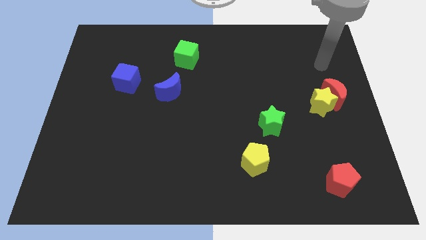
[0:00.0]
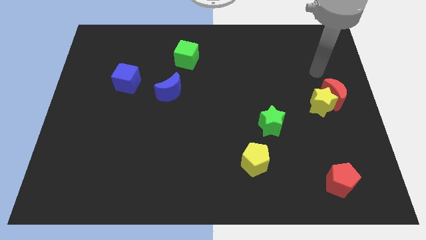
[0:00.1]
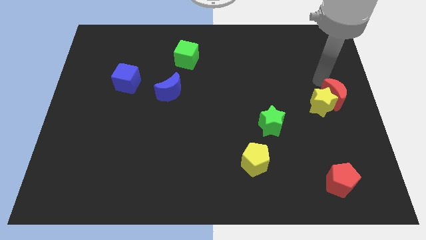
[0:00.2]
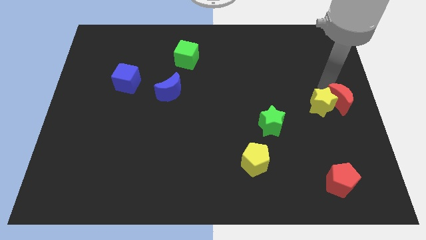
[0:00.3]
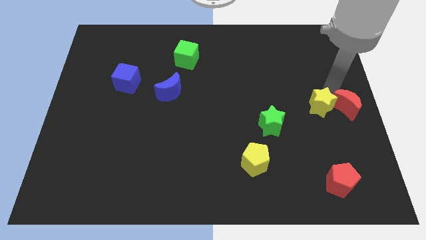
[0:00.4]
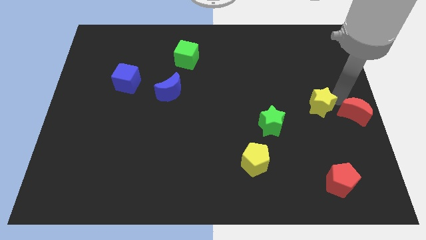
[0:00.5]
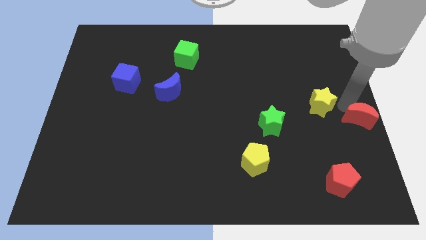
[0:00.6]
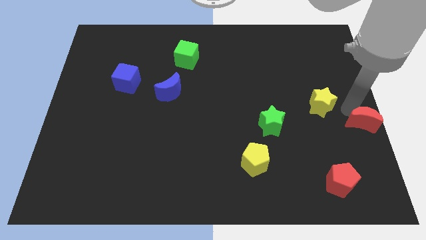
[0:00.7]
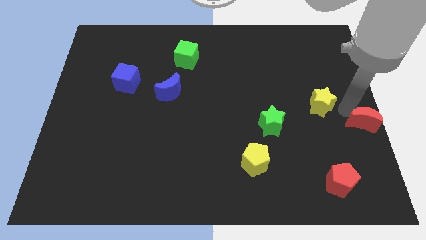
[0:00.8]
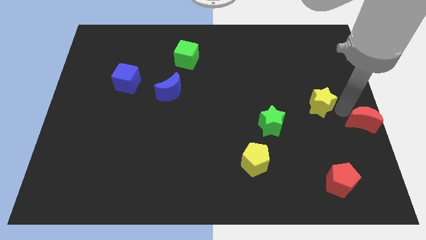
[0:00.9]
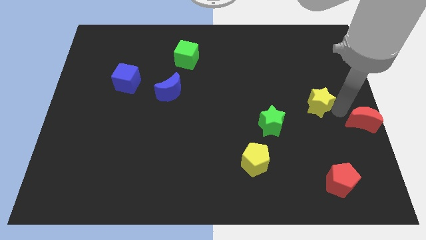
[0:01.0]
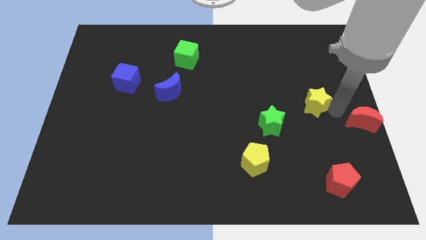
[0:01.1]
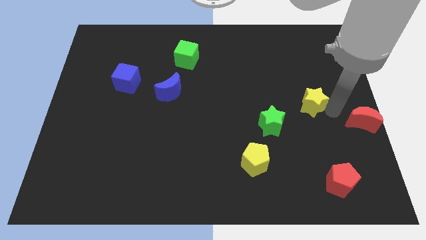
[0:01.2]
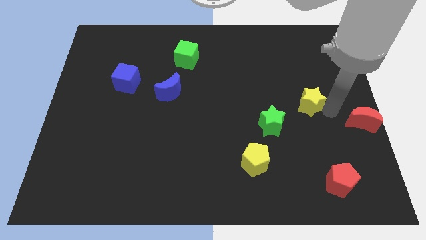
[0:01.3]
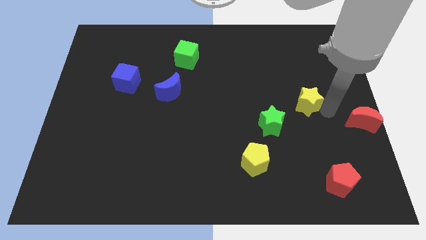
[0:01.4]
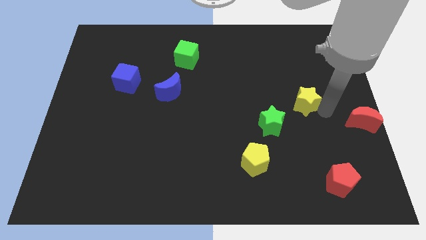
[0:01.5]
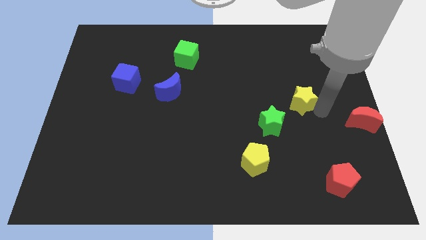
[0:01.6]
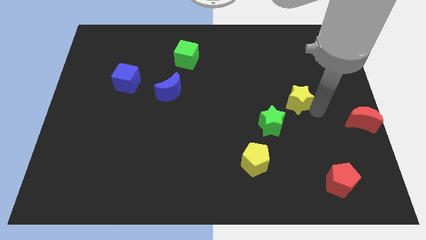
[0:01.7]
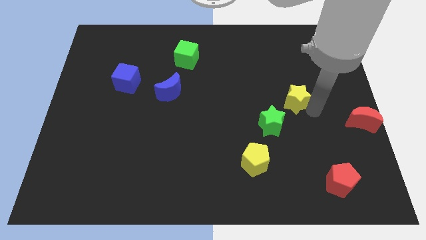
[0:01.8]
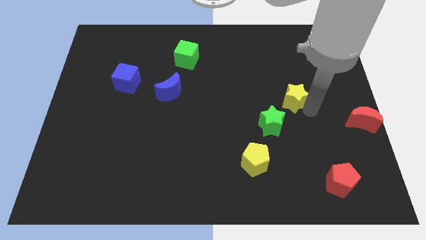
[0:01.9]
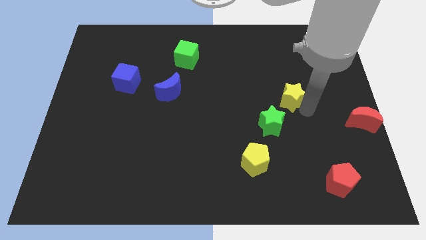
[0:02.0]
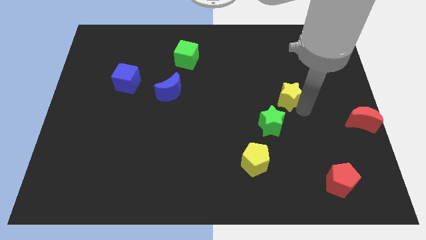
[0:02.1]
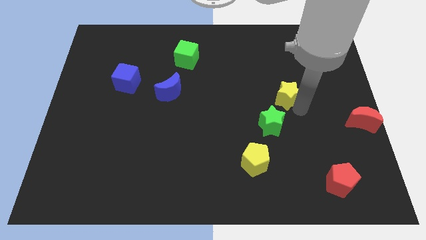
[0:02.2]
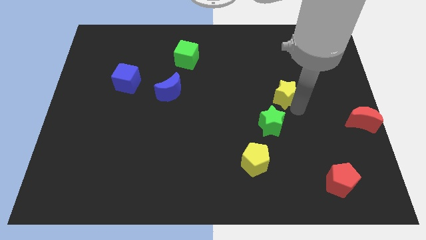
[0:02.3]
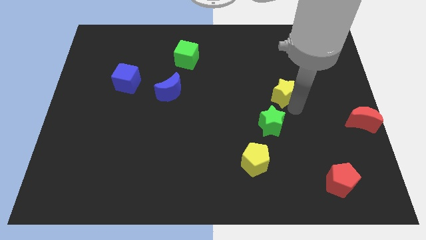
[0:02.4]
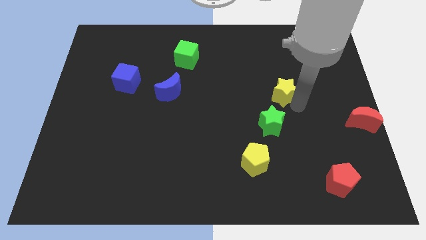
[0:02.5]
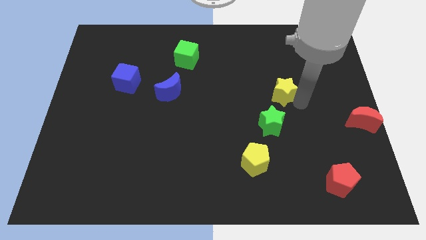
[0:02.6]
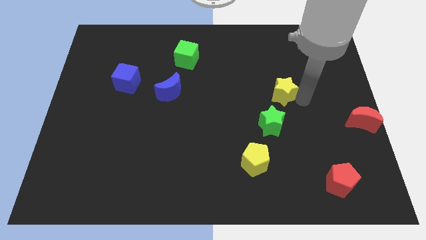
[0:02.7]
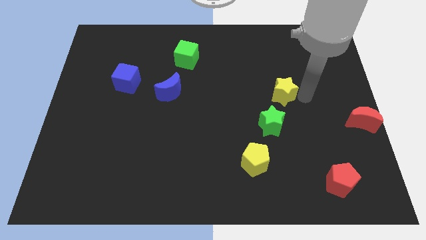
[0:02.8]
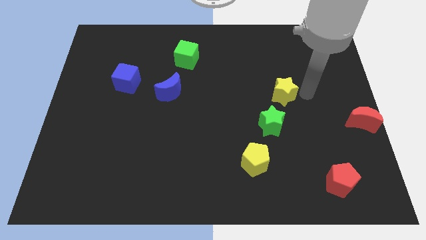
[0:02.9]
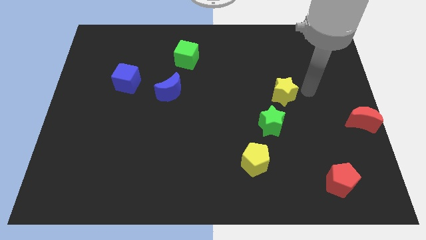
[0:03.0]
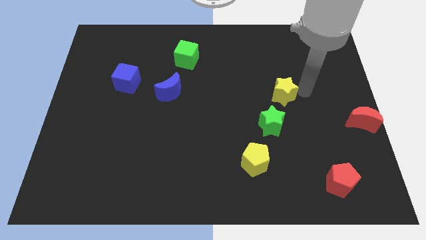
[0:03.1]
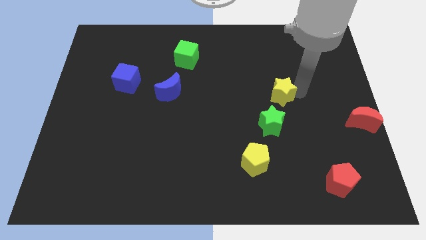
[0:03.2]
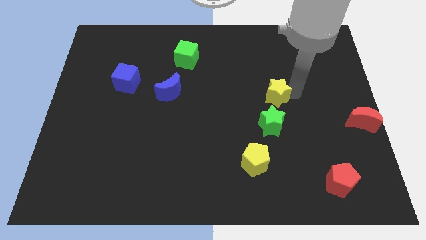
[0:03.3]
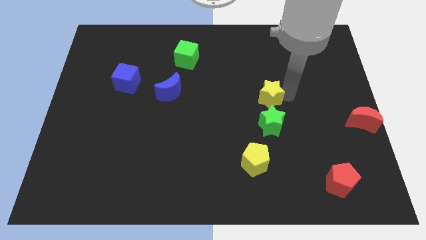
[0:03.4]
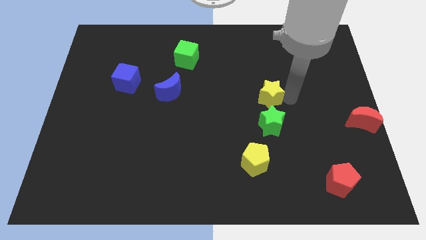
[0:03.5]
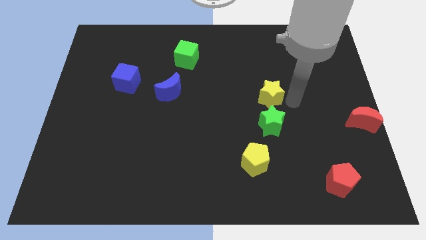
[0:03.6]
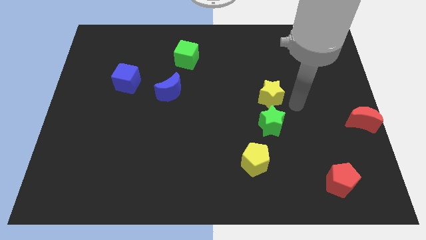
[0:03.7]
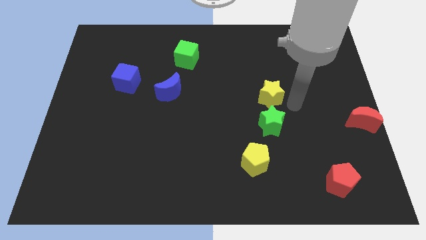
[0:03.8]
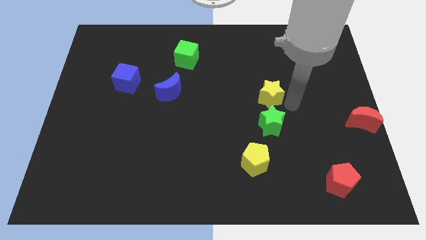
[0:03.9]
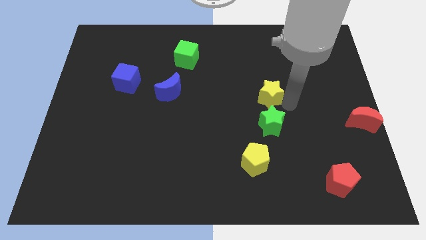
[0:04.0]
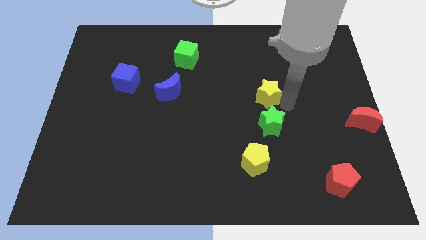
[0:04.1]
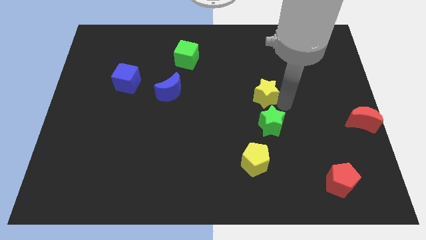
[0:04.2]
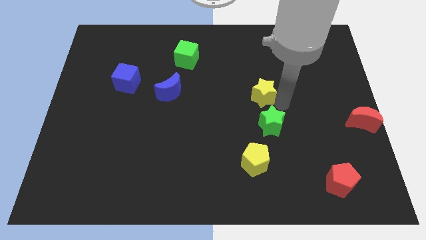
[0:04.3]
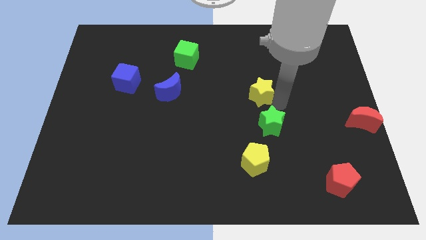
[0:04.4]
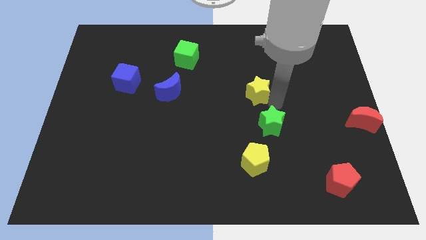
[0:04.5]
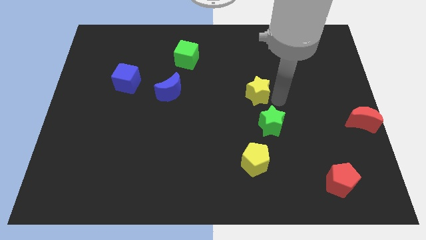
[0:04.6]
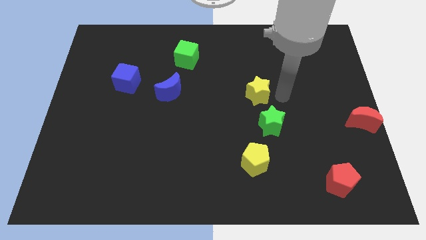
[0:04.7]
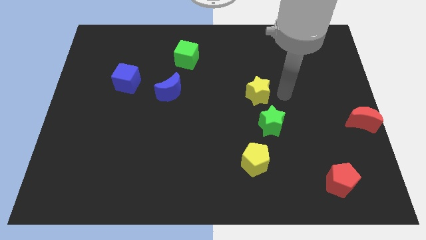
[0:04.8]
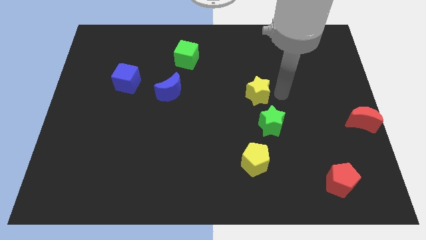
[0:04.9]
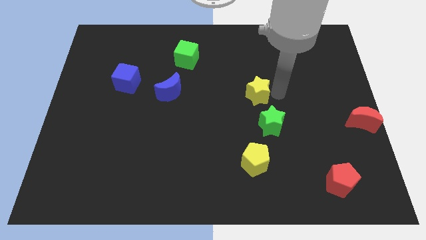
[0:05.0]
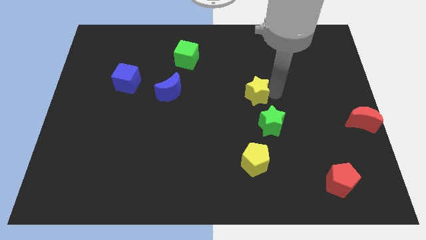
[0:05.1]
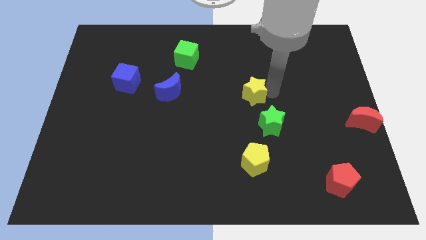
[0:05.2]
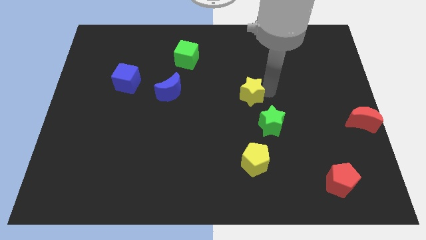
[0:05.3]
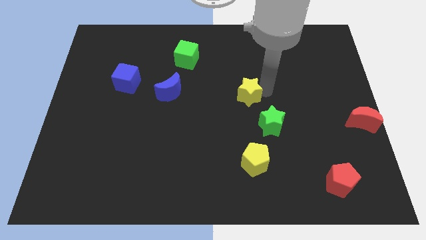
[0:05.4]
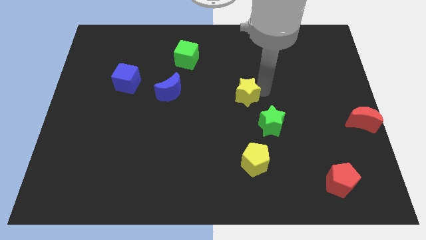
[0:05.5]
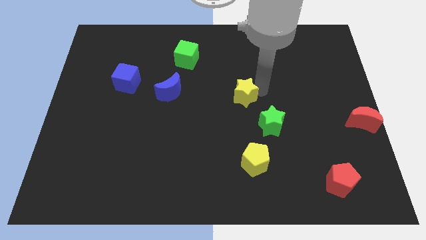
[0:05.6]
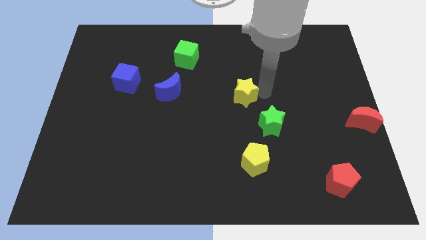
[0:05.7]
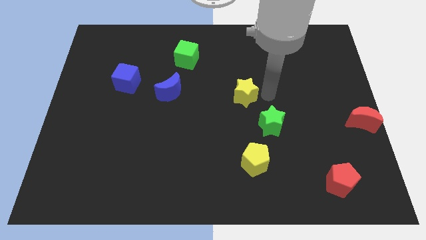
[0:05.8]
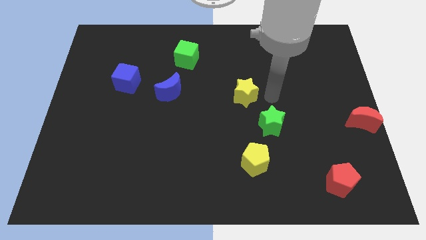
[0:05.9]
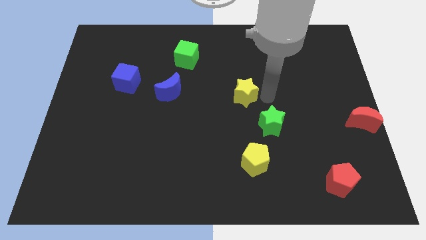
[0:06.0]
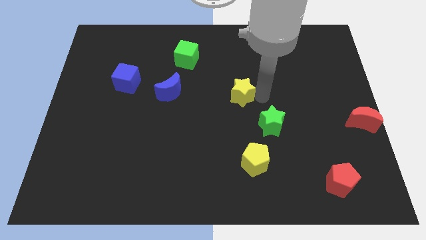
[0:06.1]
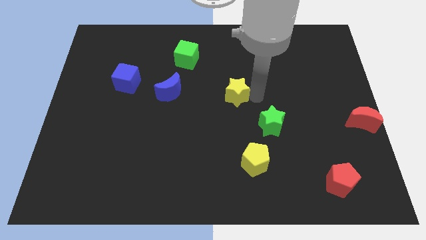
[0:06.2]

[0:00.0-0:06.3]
slide the yellow star to the left

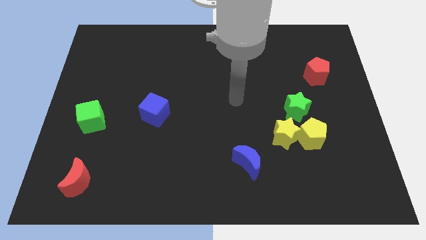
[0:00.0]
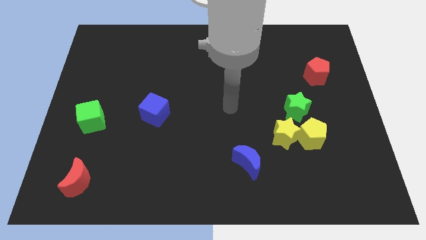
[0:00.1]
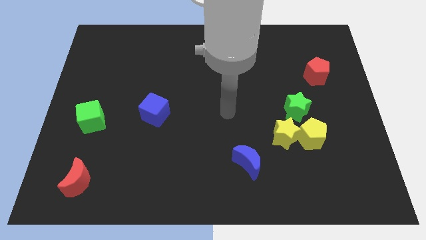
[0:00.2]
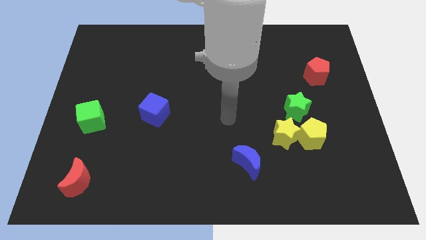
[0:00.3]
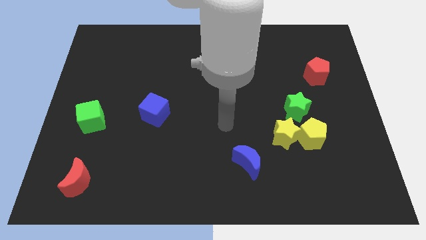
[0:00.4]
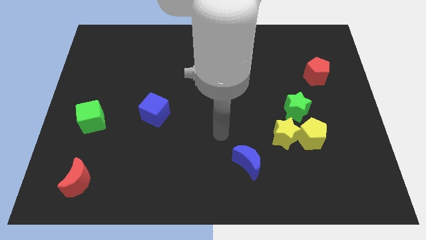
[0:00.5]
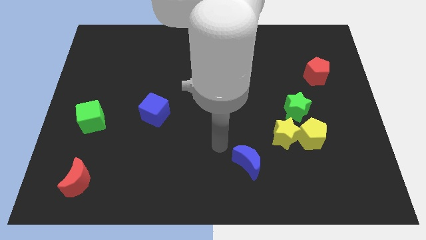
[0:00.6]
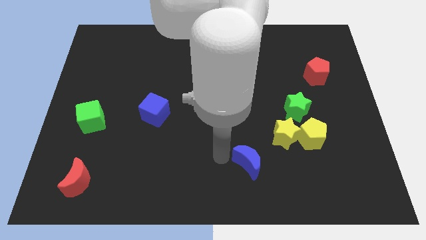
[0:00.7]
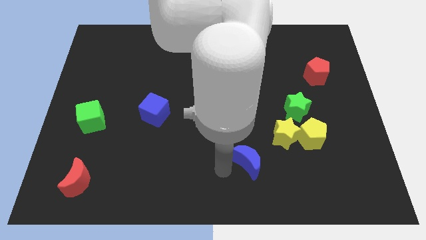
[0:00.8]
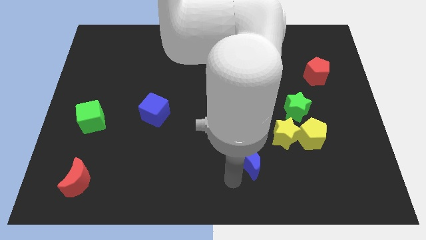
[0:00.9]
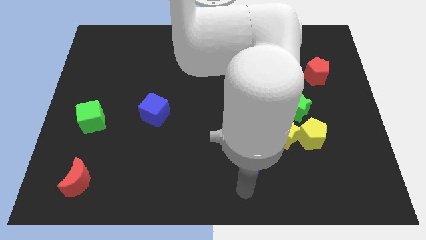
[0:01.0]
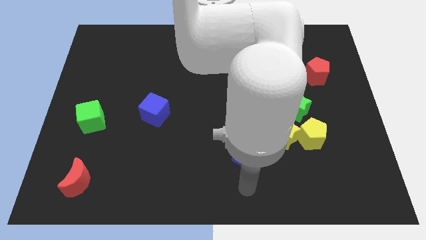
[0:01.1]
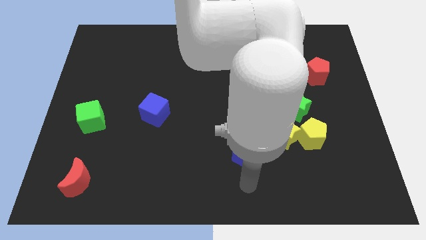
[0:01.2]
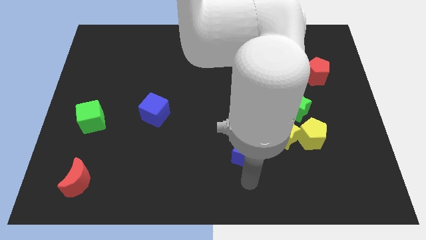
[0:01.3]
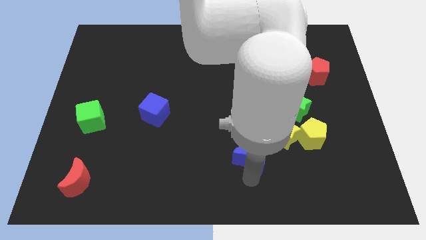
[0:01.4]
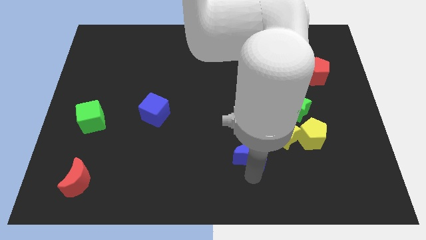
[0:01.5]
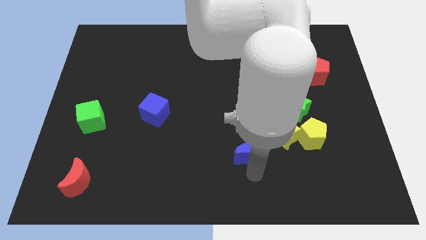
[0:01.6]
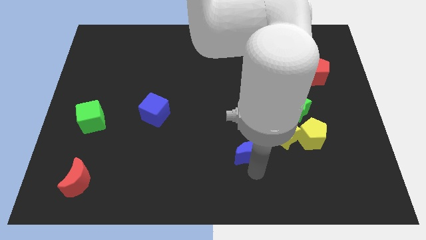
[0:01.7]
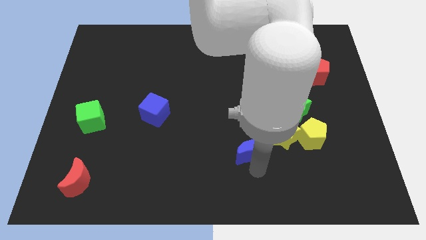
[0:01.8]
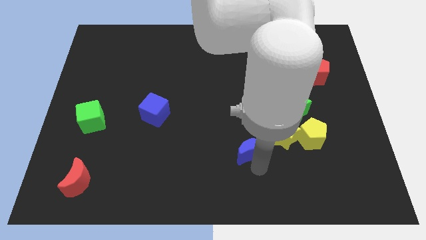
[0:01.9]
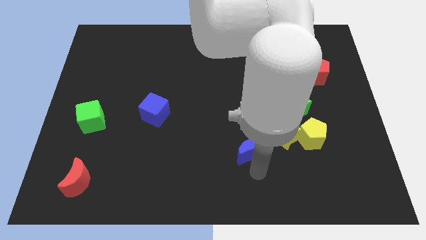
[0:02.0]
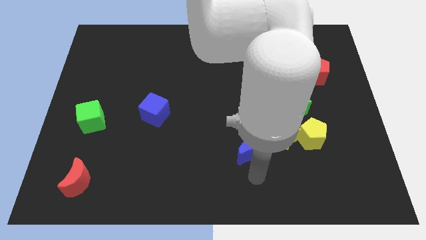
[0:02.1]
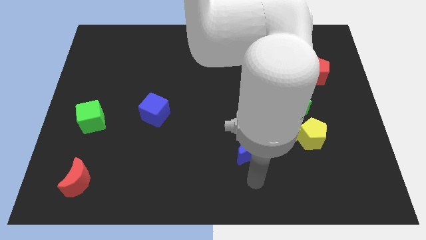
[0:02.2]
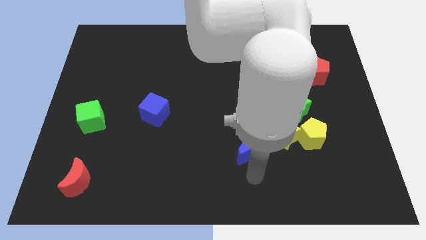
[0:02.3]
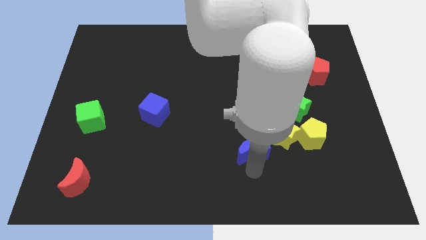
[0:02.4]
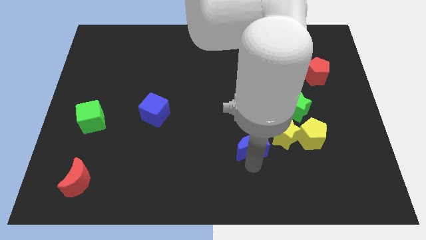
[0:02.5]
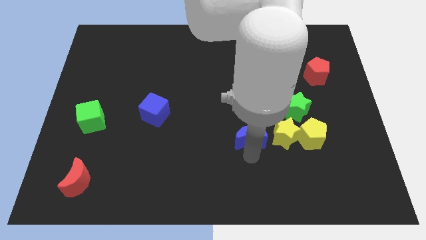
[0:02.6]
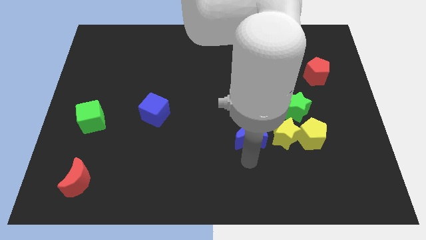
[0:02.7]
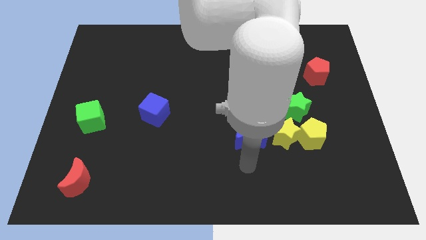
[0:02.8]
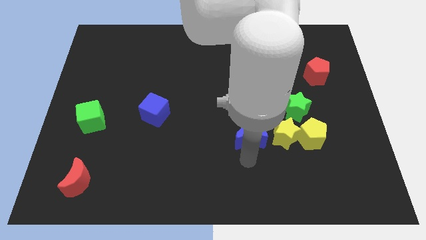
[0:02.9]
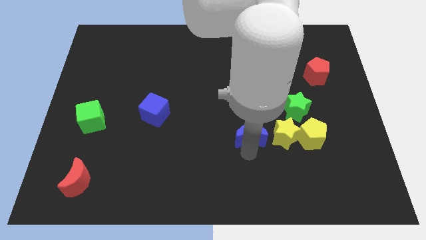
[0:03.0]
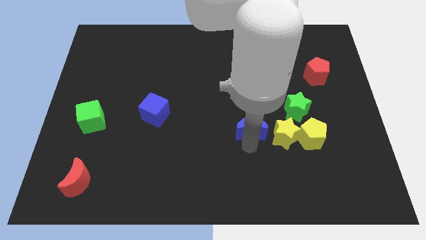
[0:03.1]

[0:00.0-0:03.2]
slightly move the blue moon upwards
